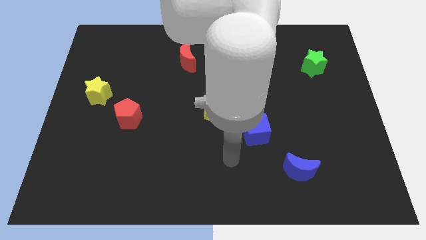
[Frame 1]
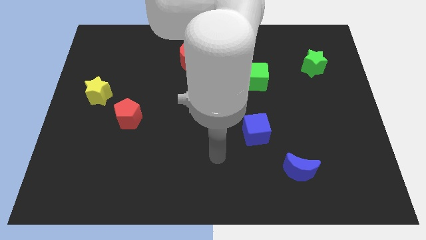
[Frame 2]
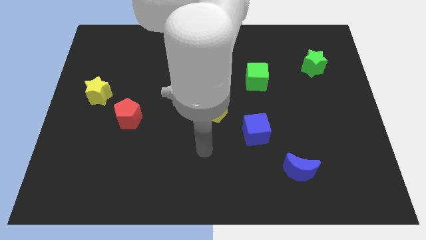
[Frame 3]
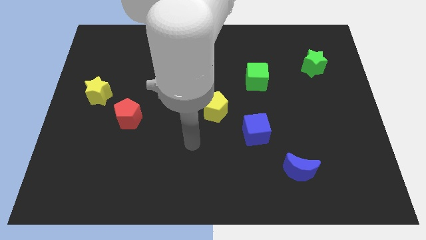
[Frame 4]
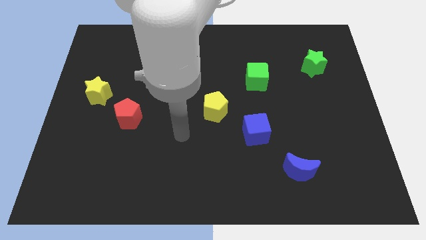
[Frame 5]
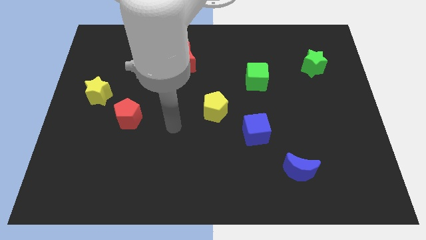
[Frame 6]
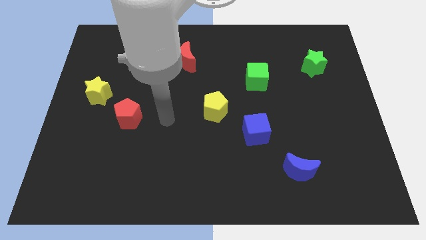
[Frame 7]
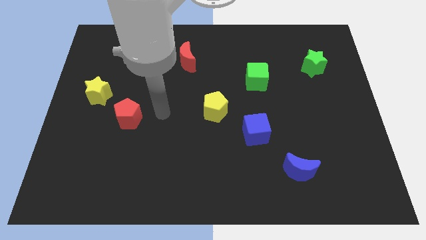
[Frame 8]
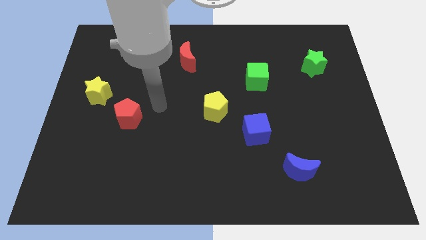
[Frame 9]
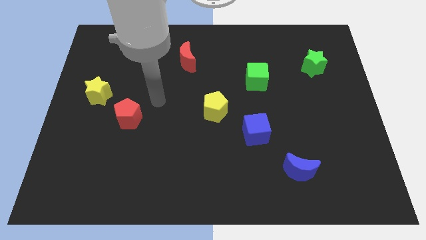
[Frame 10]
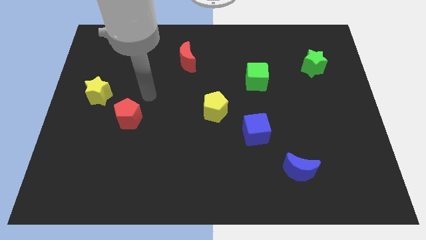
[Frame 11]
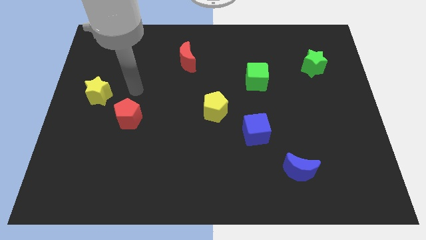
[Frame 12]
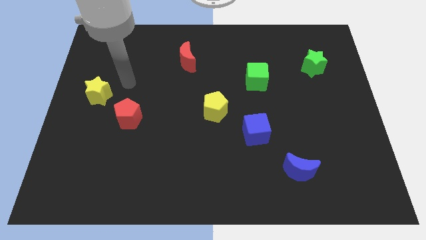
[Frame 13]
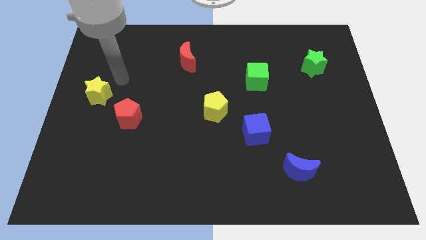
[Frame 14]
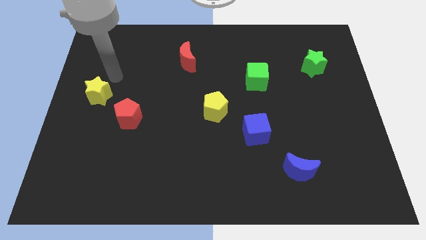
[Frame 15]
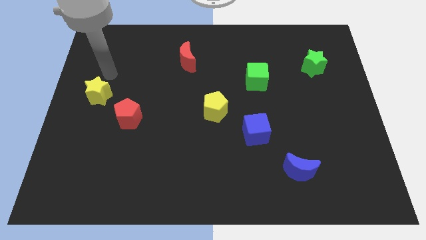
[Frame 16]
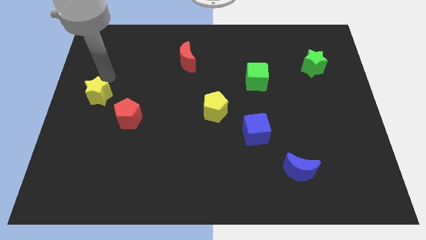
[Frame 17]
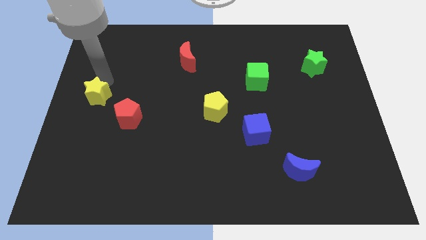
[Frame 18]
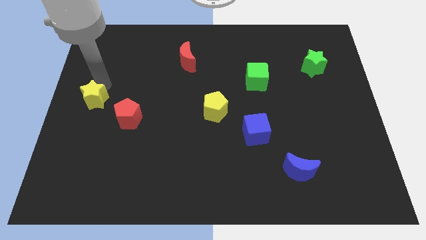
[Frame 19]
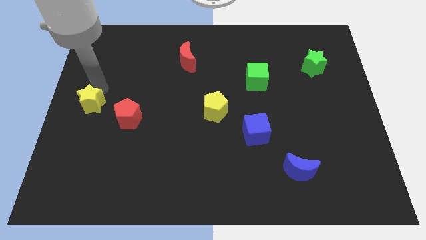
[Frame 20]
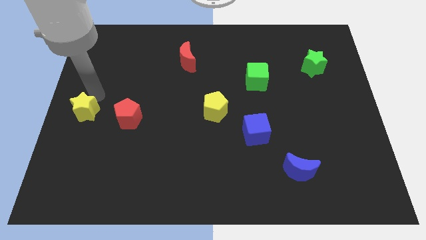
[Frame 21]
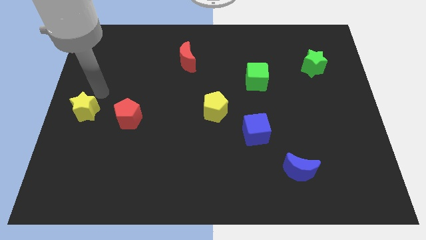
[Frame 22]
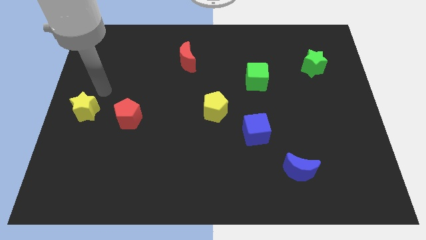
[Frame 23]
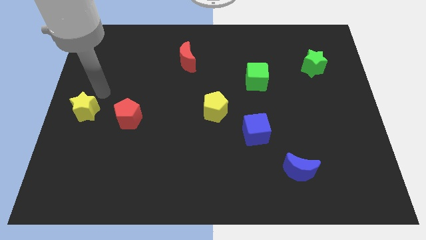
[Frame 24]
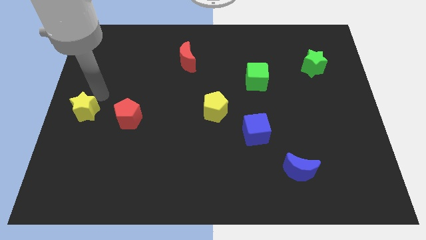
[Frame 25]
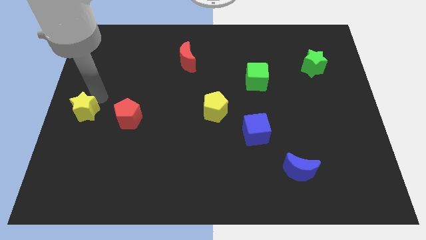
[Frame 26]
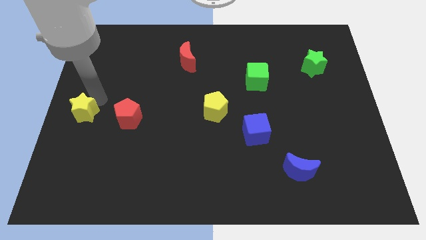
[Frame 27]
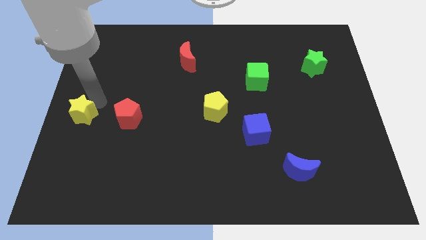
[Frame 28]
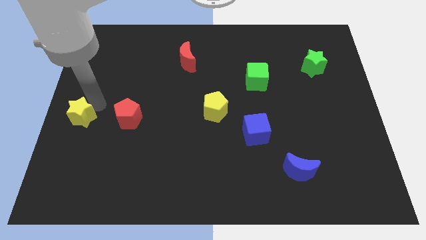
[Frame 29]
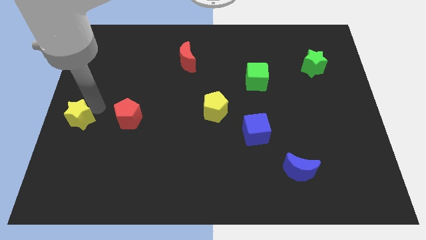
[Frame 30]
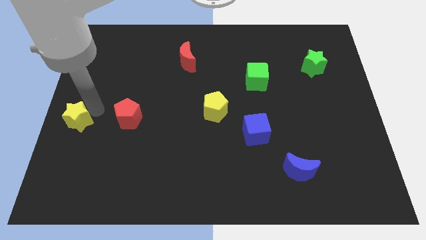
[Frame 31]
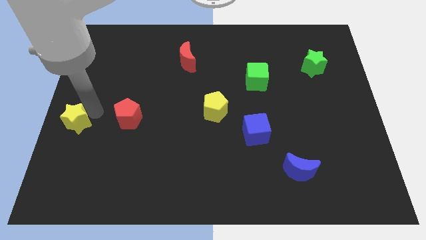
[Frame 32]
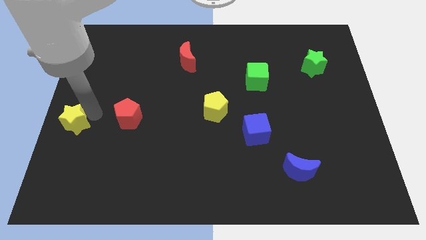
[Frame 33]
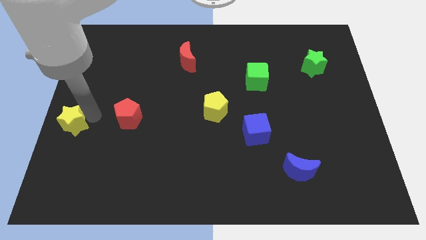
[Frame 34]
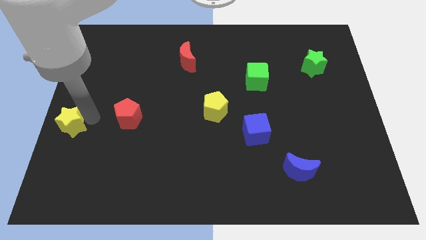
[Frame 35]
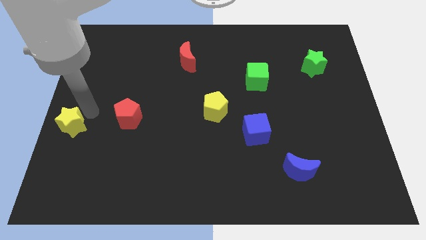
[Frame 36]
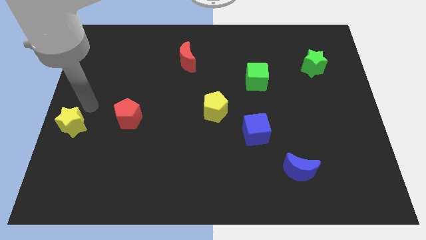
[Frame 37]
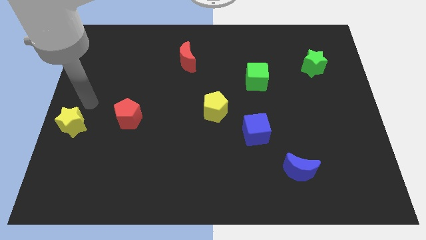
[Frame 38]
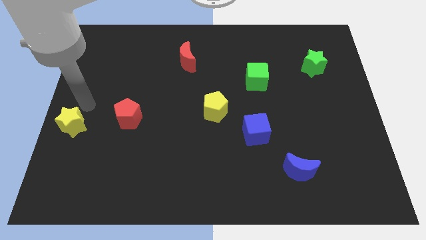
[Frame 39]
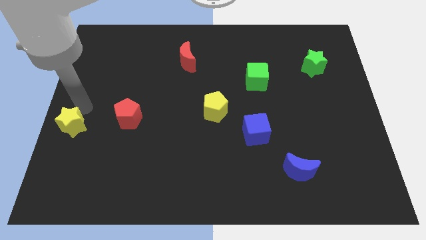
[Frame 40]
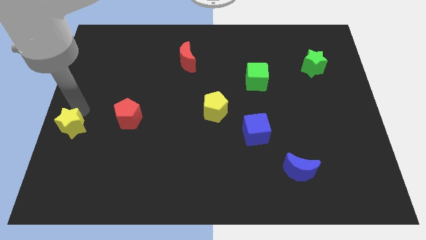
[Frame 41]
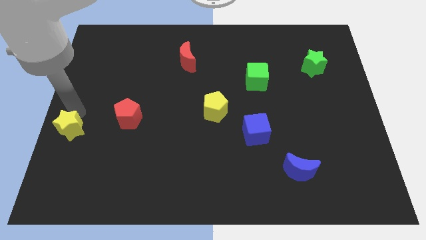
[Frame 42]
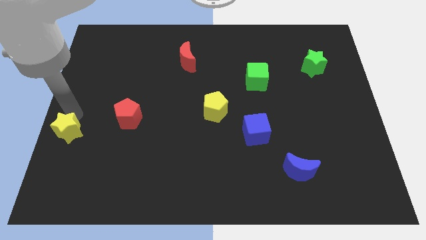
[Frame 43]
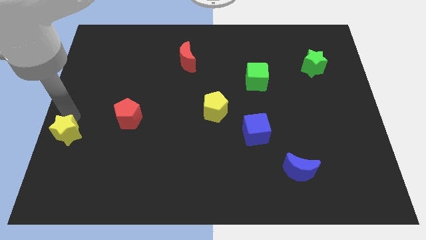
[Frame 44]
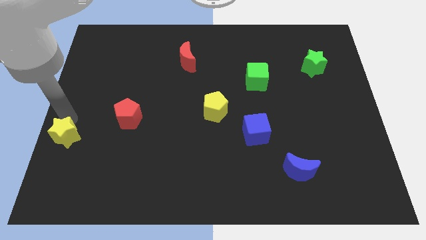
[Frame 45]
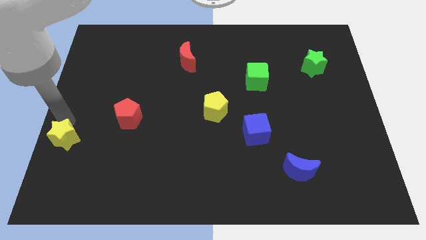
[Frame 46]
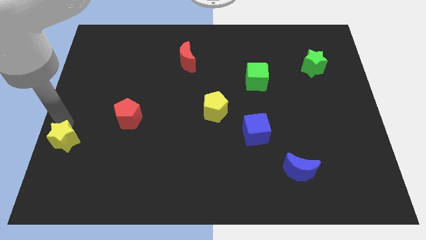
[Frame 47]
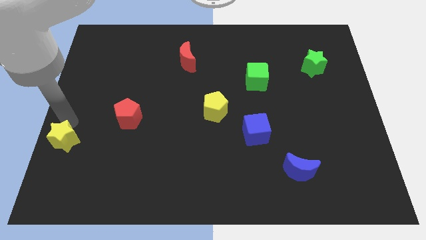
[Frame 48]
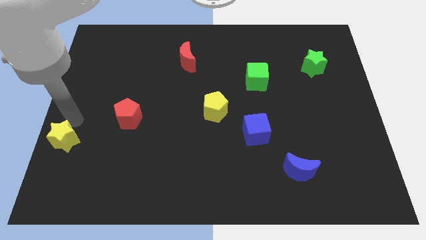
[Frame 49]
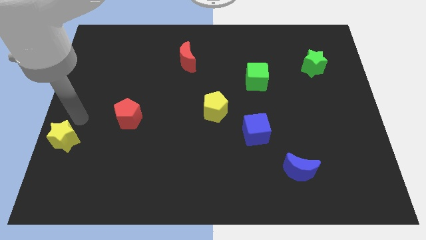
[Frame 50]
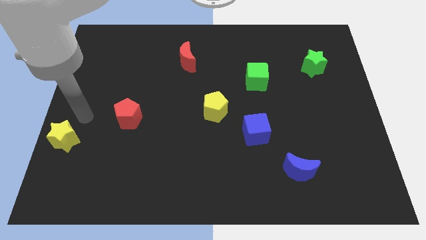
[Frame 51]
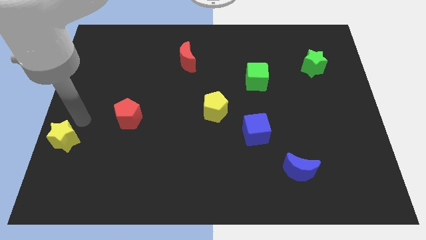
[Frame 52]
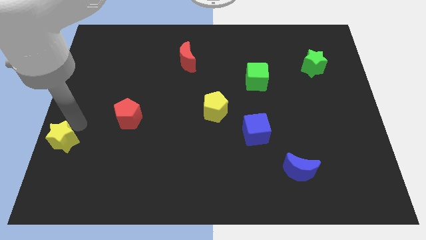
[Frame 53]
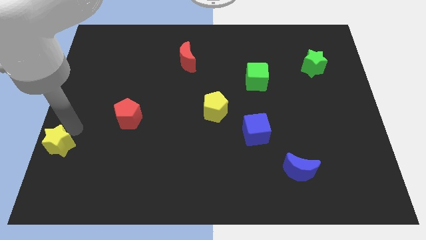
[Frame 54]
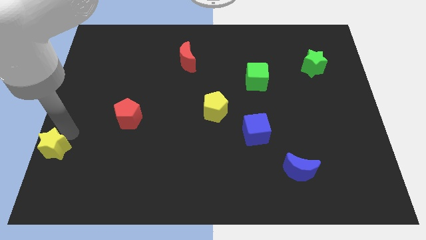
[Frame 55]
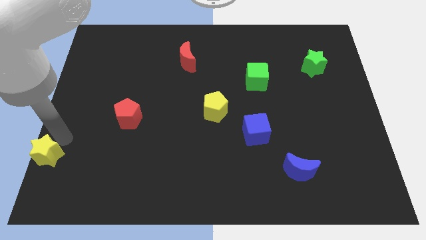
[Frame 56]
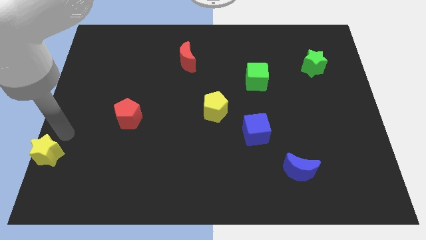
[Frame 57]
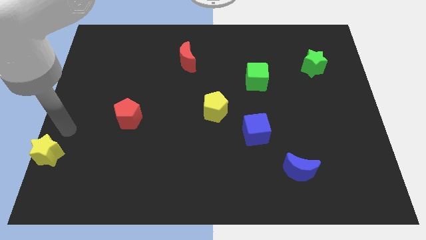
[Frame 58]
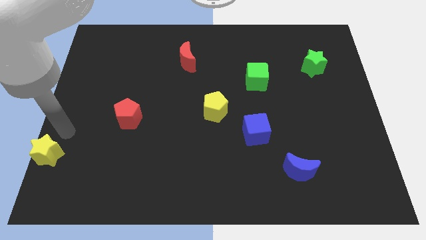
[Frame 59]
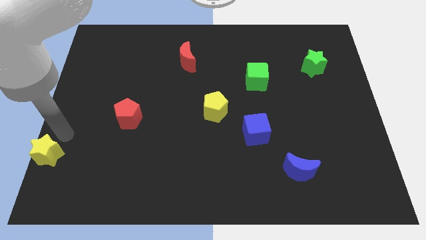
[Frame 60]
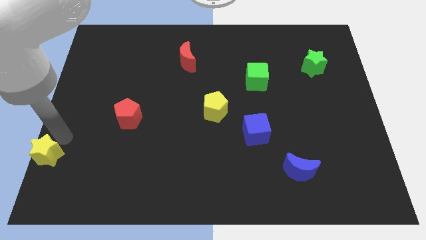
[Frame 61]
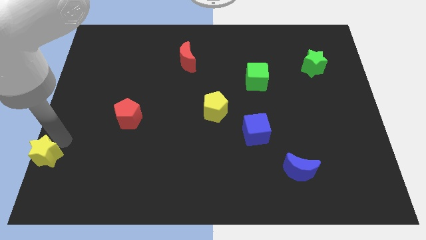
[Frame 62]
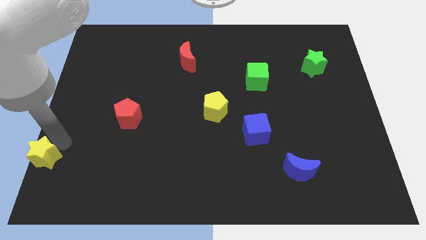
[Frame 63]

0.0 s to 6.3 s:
slide the yellow star to the bottom left of the board

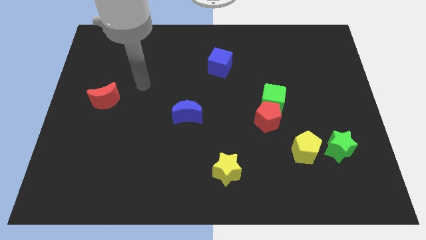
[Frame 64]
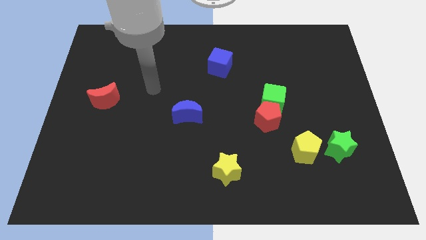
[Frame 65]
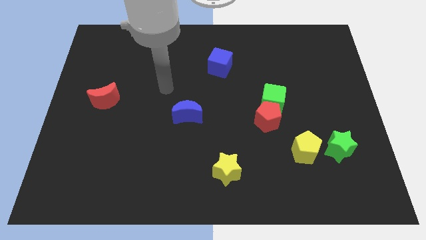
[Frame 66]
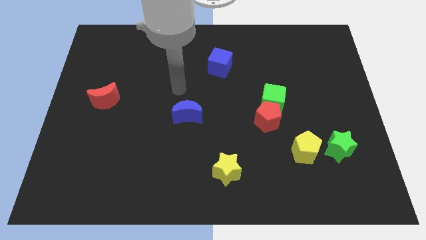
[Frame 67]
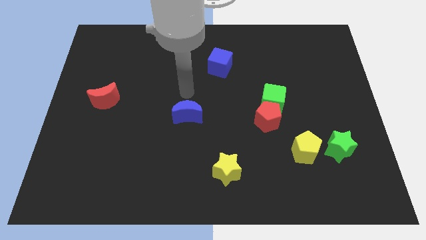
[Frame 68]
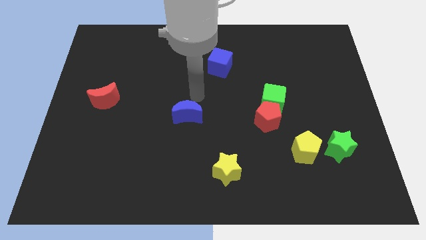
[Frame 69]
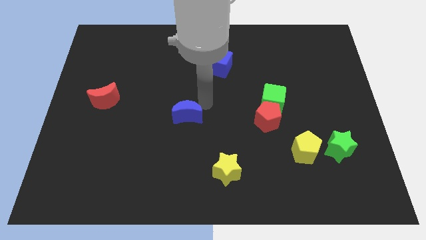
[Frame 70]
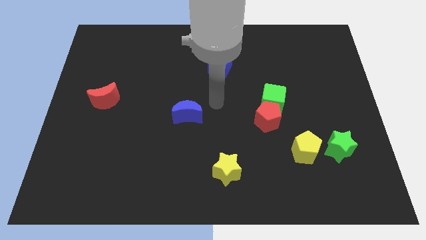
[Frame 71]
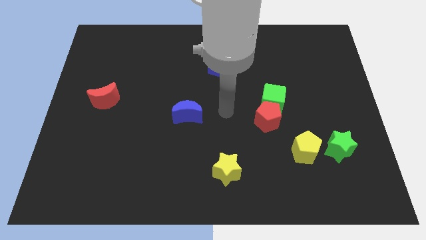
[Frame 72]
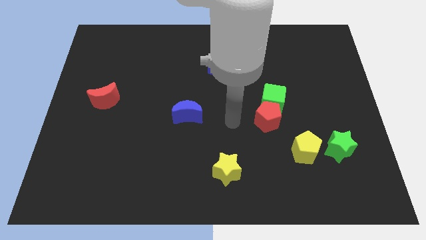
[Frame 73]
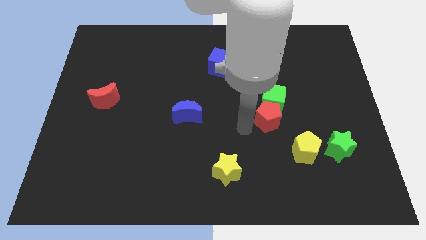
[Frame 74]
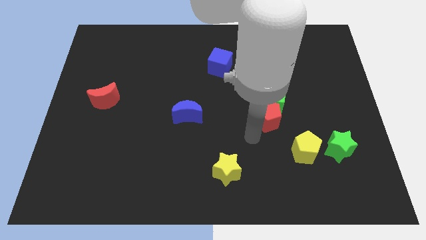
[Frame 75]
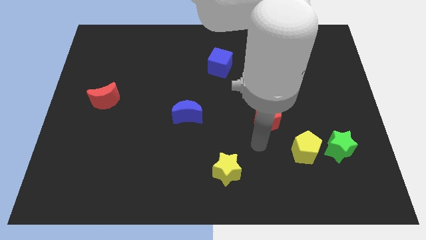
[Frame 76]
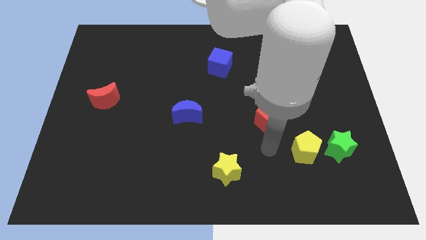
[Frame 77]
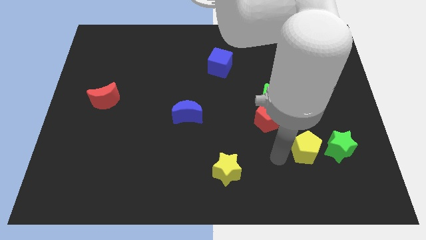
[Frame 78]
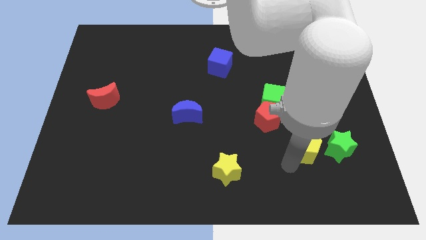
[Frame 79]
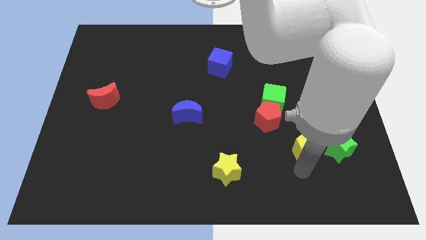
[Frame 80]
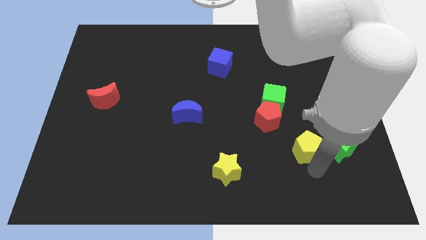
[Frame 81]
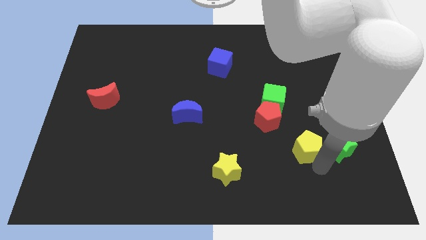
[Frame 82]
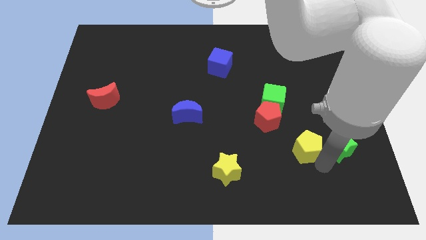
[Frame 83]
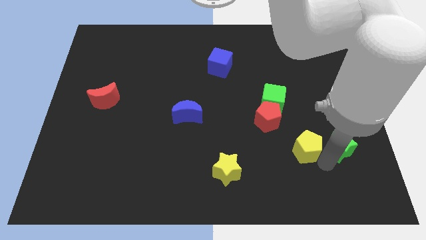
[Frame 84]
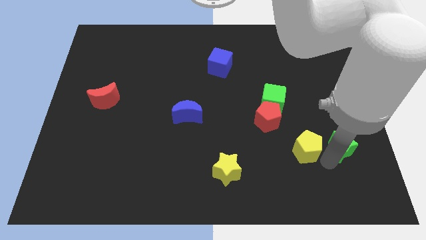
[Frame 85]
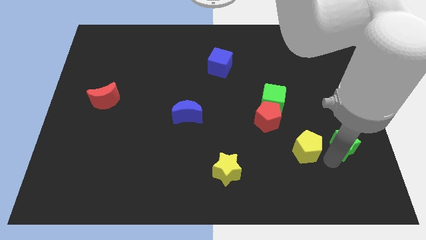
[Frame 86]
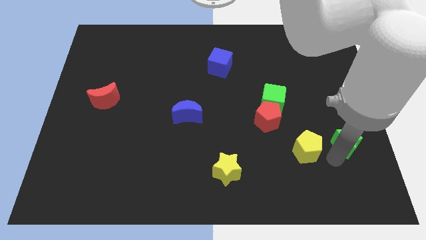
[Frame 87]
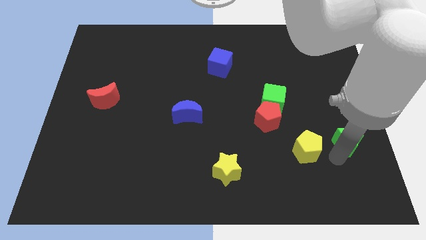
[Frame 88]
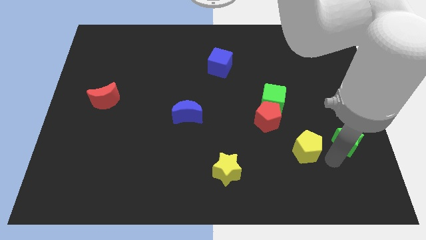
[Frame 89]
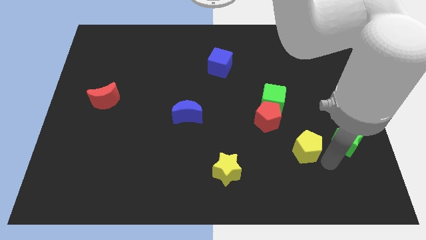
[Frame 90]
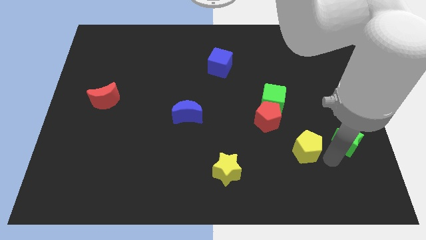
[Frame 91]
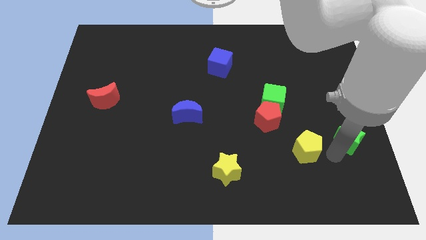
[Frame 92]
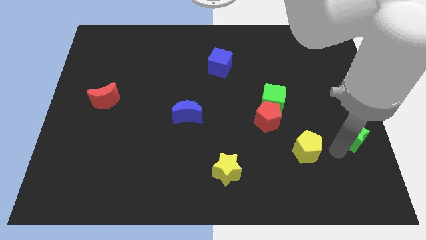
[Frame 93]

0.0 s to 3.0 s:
push the green star to the right side of the board
